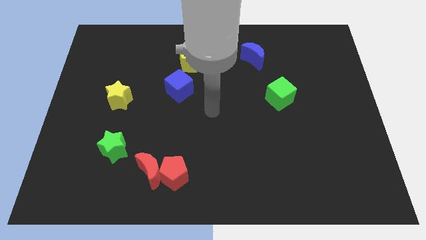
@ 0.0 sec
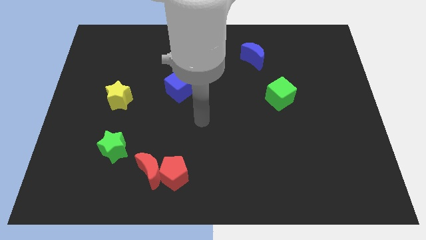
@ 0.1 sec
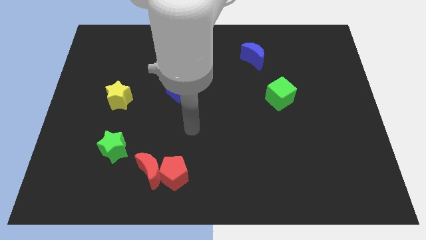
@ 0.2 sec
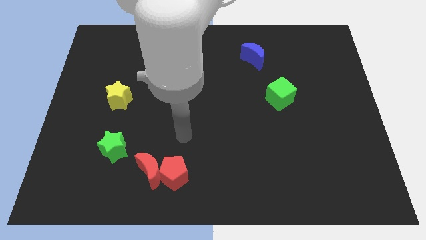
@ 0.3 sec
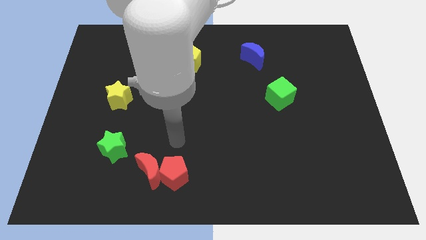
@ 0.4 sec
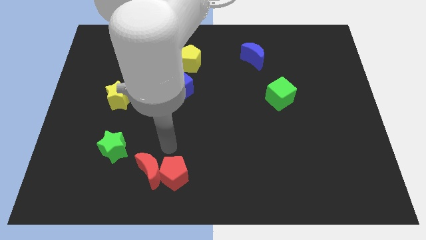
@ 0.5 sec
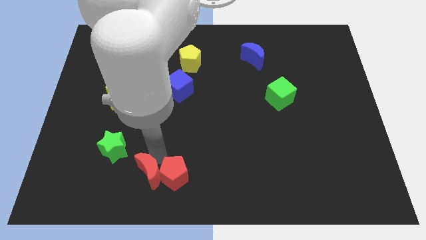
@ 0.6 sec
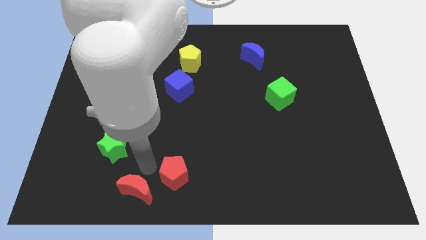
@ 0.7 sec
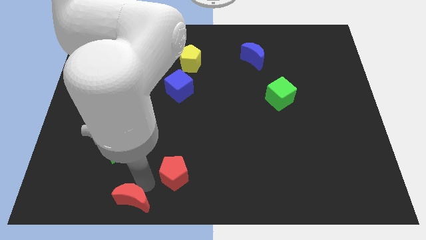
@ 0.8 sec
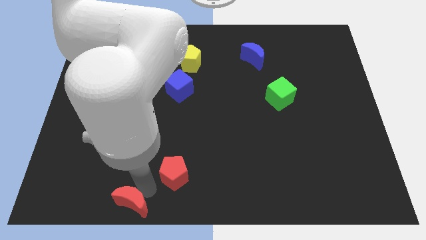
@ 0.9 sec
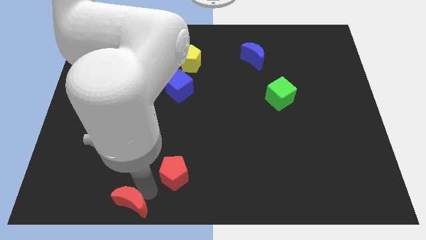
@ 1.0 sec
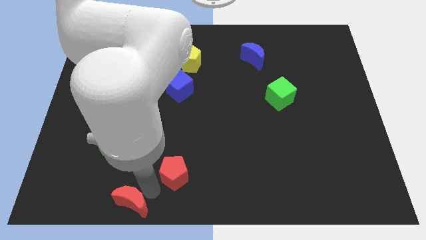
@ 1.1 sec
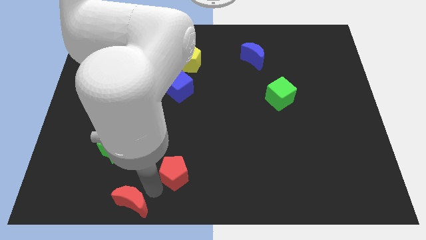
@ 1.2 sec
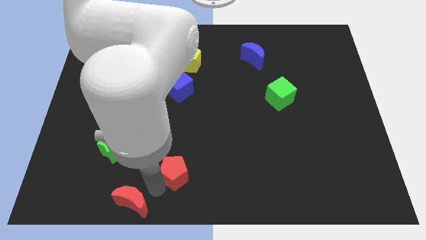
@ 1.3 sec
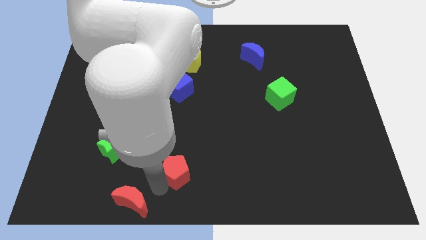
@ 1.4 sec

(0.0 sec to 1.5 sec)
move the red pentagon away from the red moon

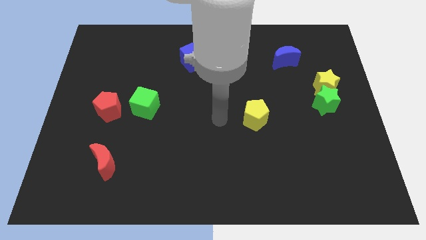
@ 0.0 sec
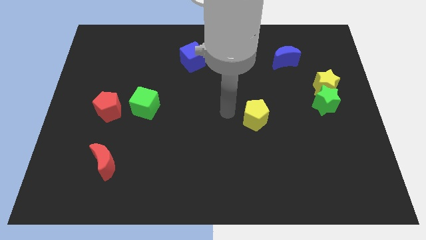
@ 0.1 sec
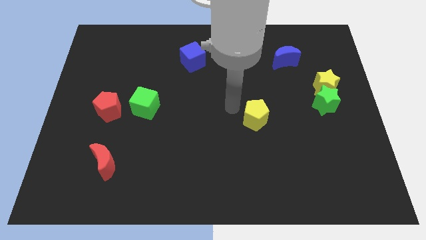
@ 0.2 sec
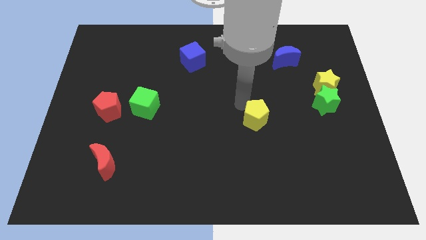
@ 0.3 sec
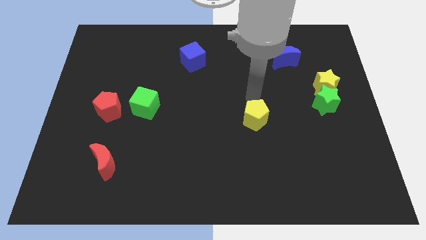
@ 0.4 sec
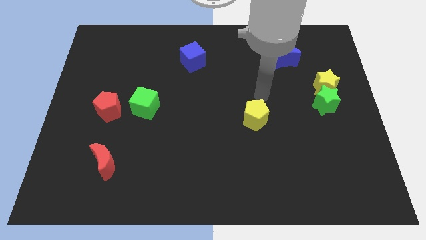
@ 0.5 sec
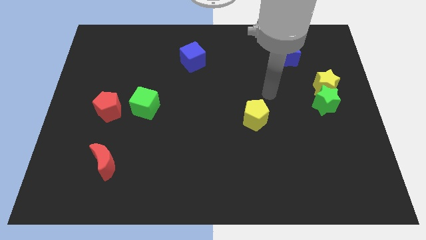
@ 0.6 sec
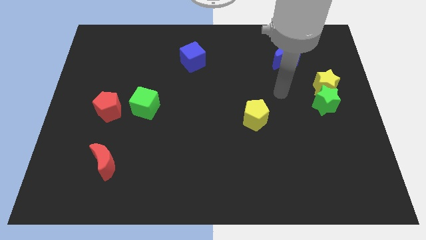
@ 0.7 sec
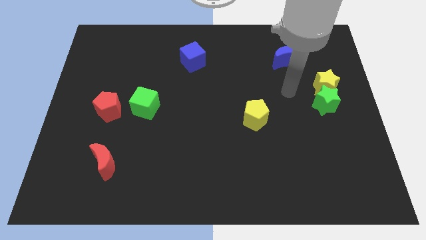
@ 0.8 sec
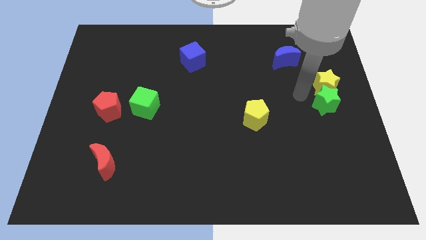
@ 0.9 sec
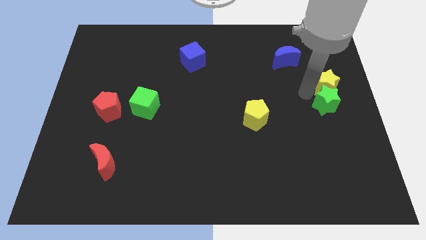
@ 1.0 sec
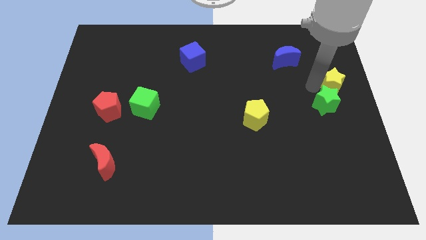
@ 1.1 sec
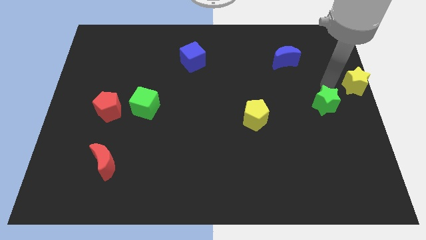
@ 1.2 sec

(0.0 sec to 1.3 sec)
move the green star away from the yellow star

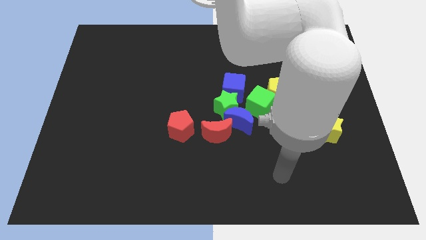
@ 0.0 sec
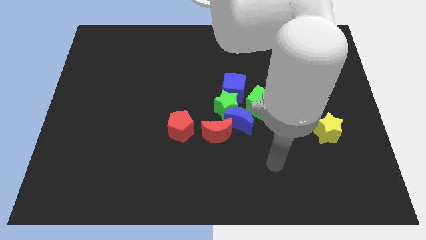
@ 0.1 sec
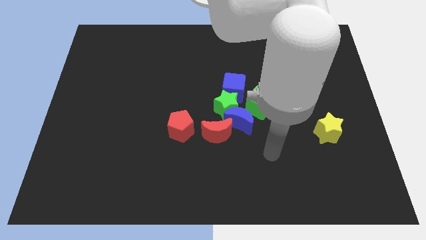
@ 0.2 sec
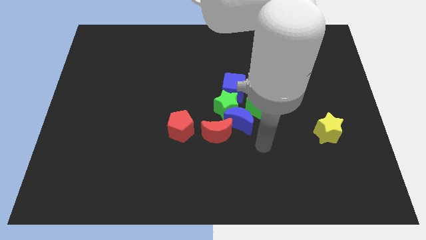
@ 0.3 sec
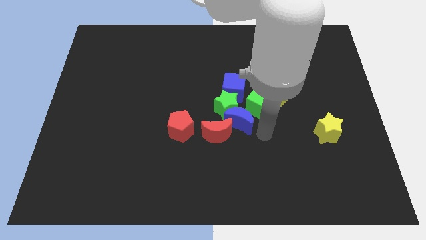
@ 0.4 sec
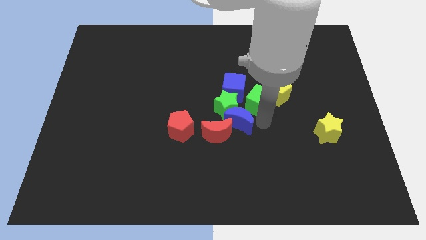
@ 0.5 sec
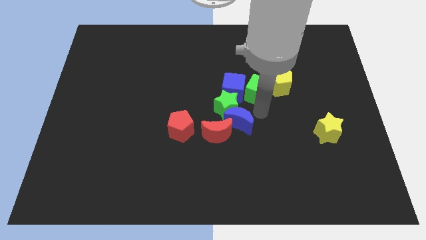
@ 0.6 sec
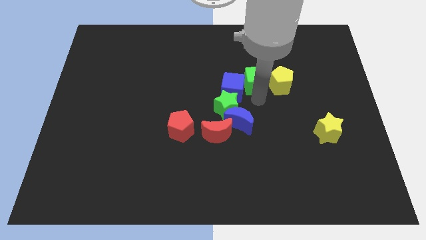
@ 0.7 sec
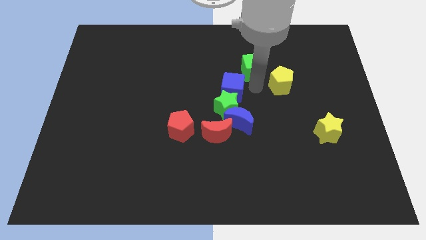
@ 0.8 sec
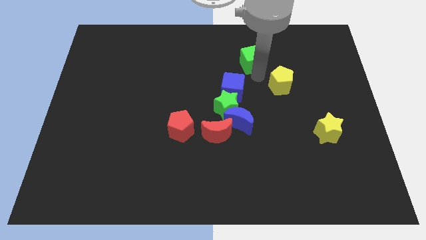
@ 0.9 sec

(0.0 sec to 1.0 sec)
move the yellow pentagon away from the green cube

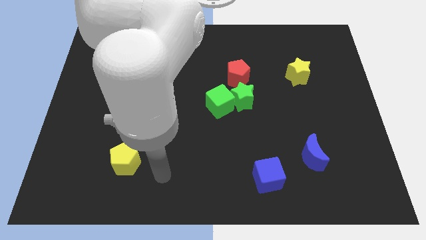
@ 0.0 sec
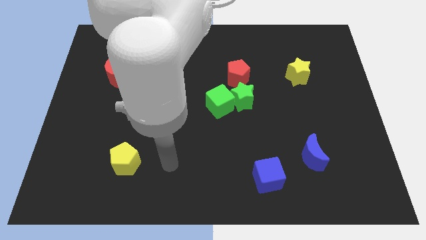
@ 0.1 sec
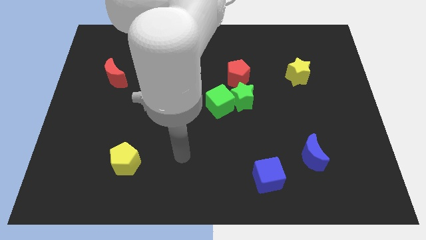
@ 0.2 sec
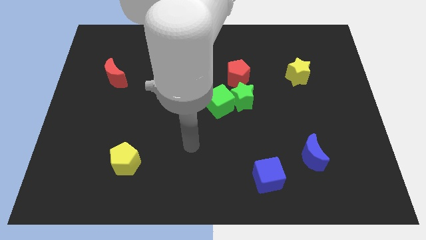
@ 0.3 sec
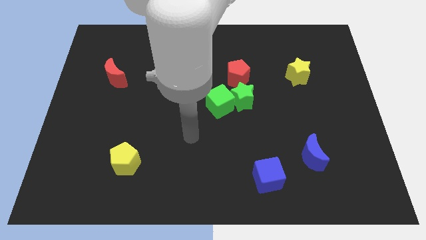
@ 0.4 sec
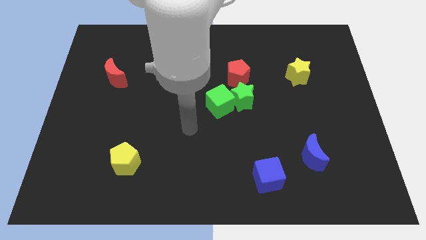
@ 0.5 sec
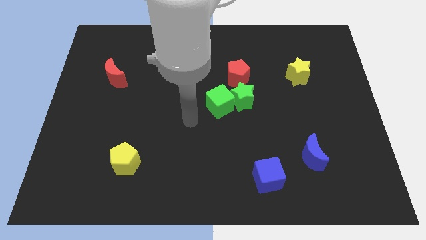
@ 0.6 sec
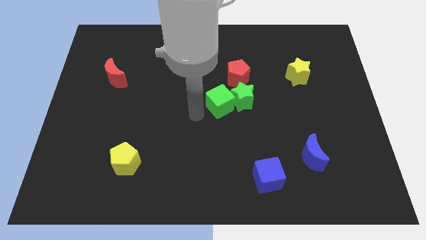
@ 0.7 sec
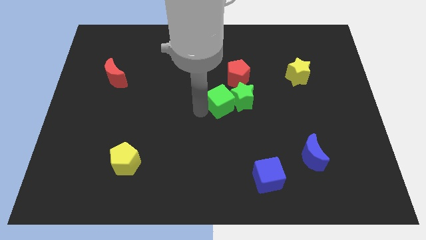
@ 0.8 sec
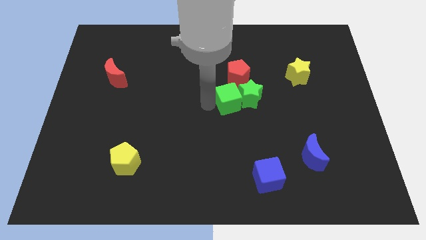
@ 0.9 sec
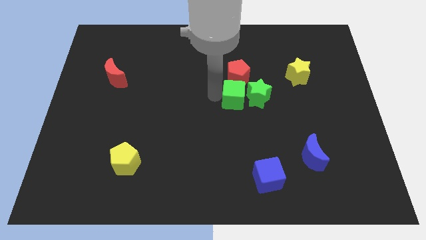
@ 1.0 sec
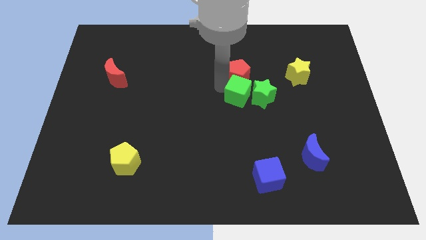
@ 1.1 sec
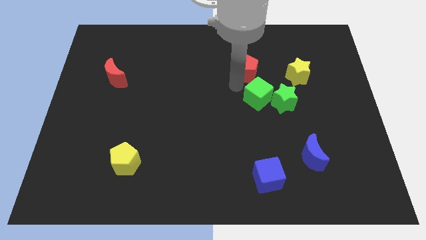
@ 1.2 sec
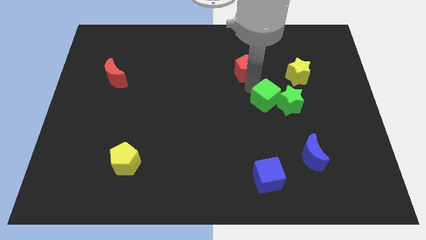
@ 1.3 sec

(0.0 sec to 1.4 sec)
move the green star away from the green cube and red pentagon

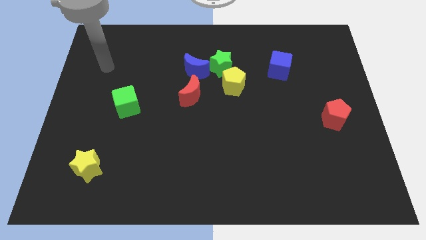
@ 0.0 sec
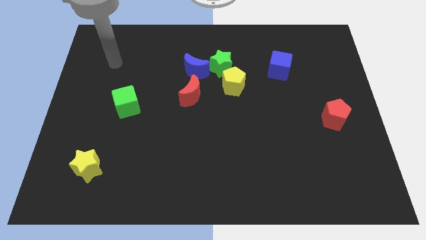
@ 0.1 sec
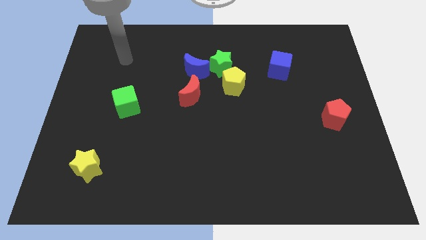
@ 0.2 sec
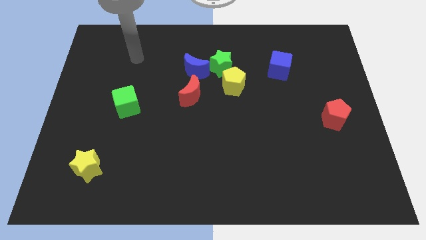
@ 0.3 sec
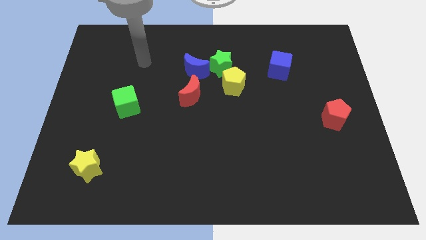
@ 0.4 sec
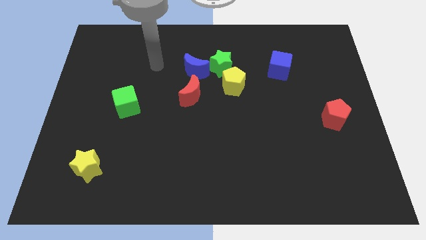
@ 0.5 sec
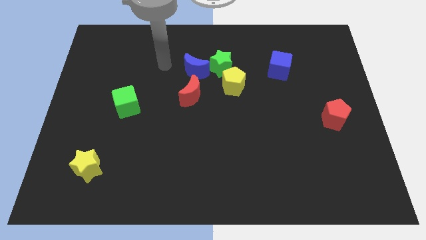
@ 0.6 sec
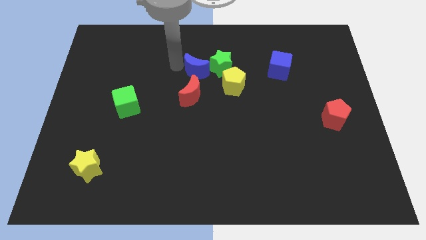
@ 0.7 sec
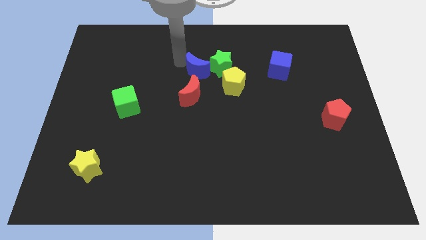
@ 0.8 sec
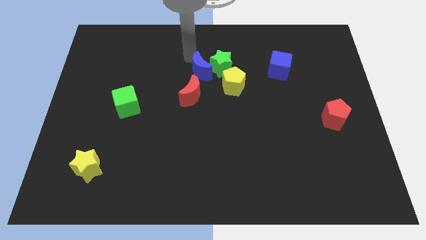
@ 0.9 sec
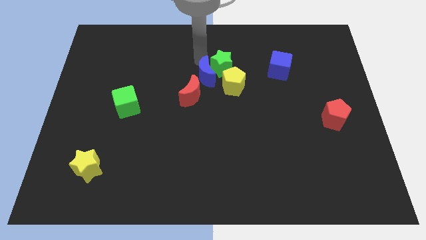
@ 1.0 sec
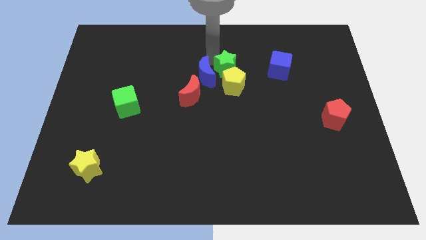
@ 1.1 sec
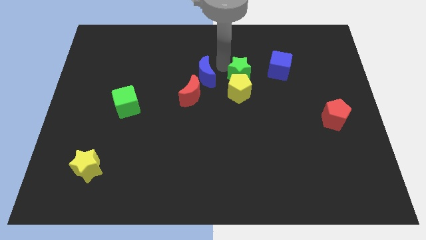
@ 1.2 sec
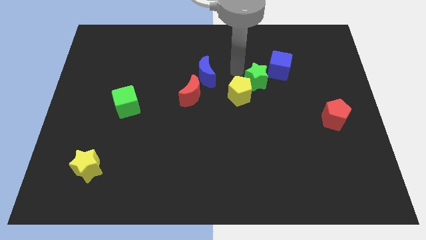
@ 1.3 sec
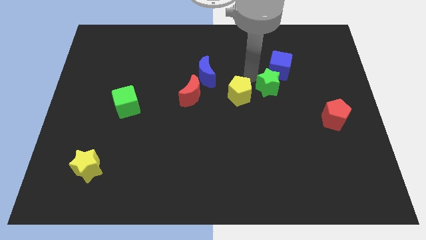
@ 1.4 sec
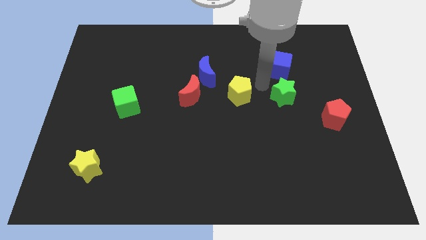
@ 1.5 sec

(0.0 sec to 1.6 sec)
move the yellow pentagon away from the green star

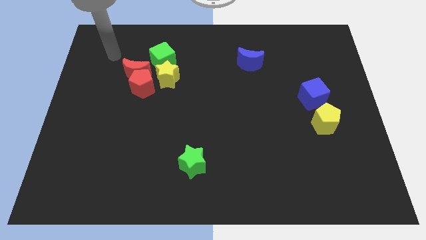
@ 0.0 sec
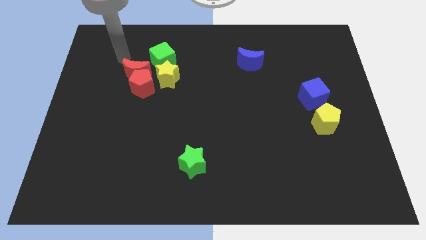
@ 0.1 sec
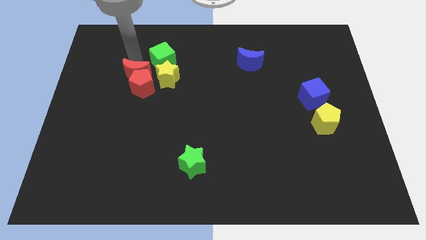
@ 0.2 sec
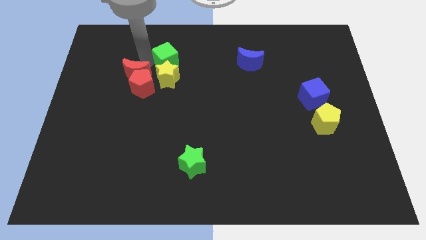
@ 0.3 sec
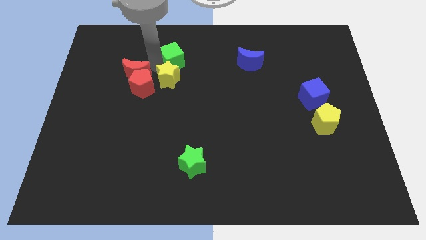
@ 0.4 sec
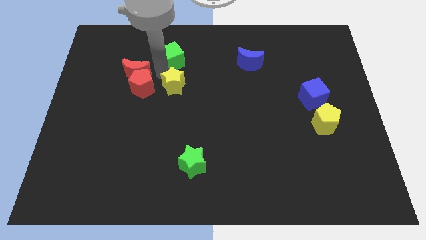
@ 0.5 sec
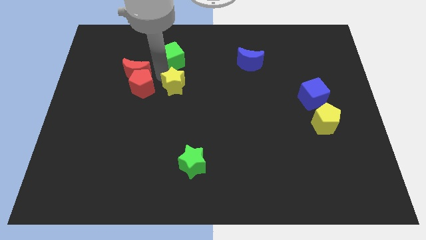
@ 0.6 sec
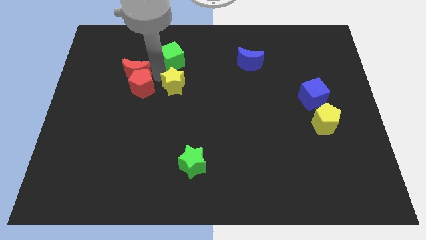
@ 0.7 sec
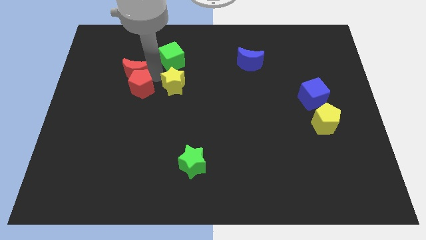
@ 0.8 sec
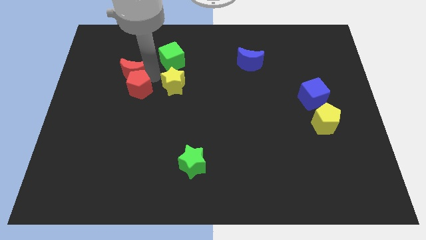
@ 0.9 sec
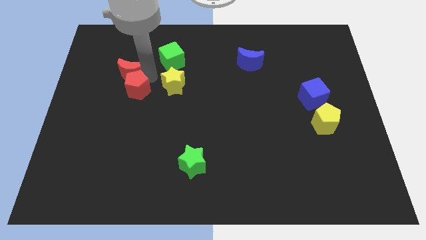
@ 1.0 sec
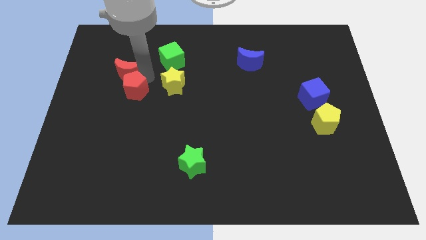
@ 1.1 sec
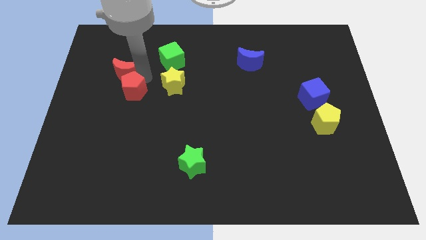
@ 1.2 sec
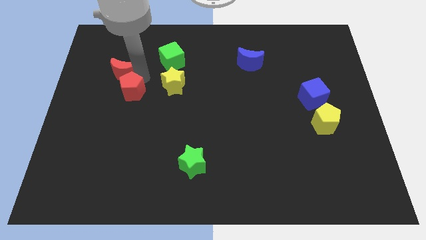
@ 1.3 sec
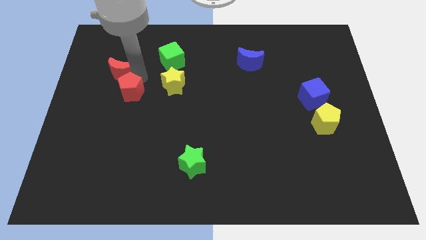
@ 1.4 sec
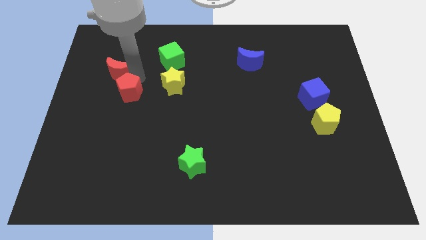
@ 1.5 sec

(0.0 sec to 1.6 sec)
pull the red moon apart from the red pentagon, green cube, and yellow star

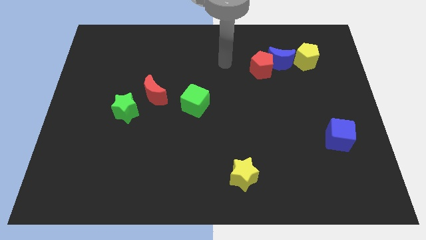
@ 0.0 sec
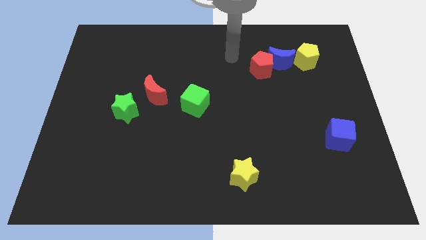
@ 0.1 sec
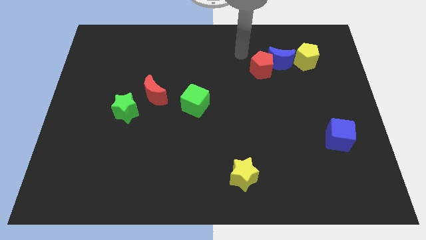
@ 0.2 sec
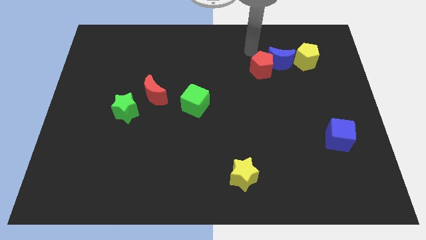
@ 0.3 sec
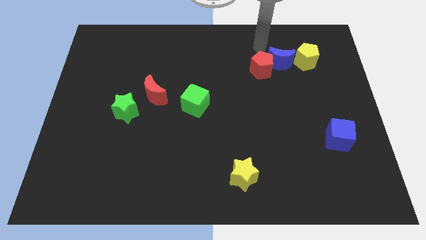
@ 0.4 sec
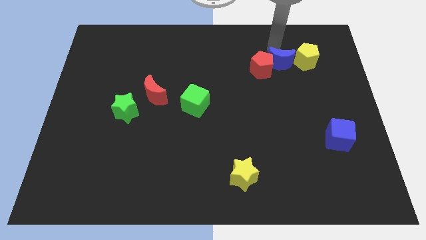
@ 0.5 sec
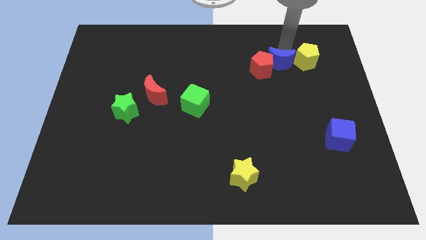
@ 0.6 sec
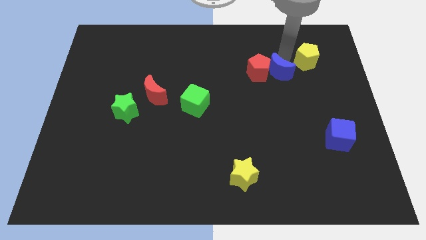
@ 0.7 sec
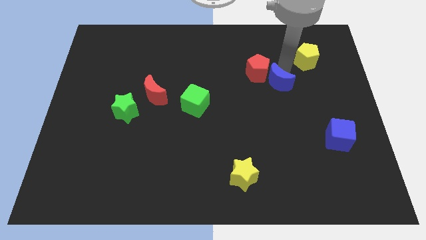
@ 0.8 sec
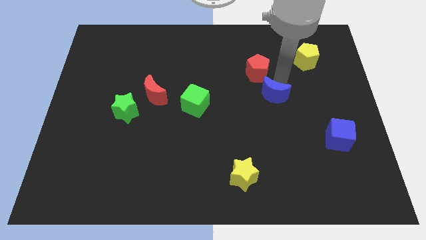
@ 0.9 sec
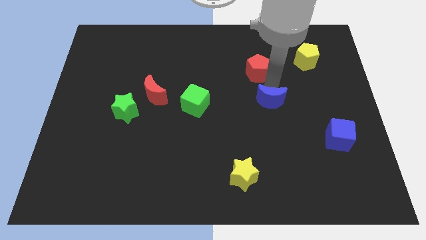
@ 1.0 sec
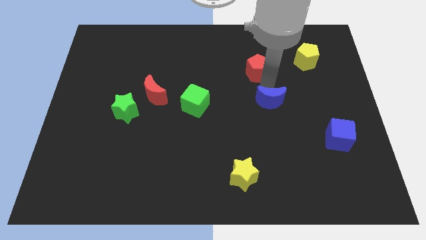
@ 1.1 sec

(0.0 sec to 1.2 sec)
pull the red pentagon apart from the blue moon
